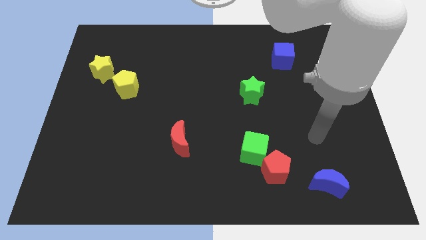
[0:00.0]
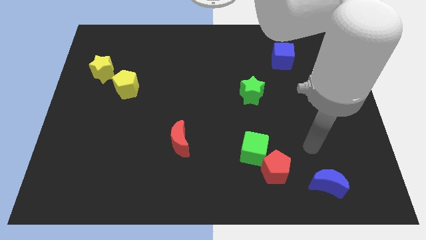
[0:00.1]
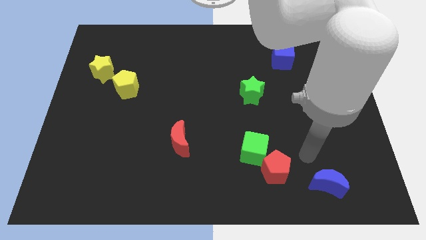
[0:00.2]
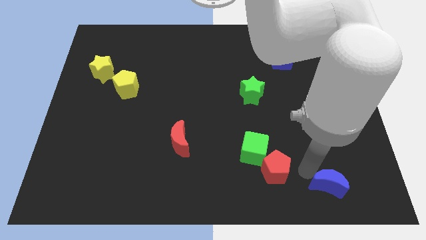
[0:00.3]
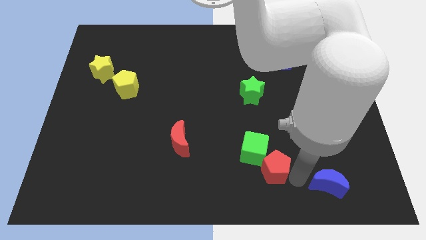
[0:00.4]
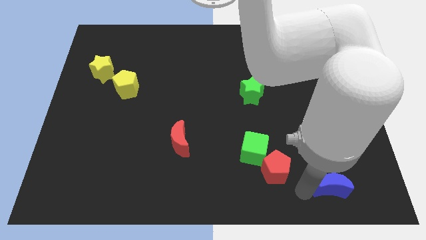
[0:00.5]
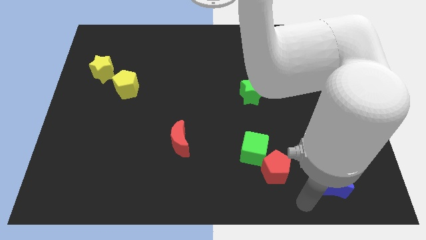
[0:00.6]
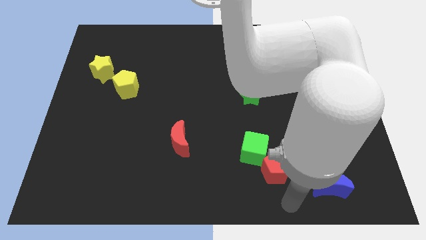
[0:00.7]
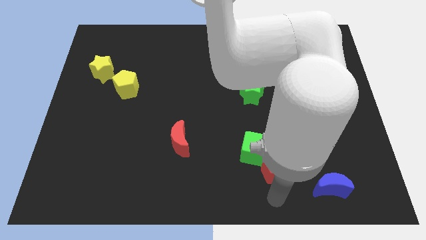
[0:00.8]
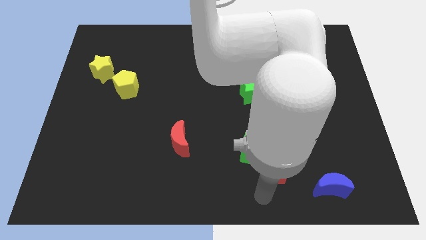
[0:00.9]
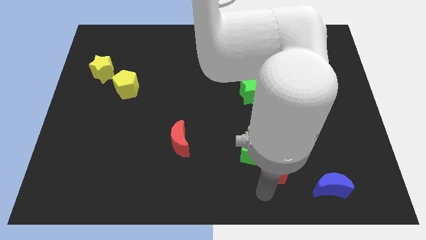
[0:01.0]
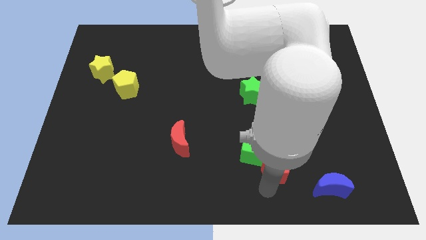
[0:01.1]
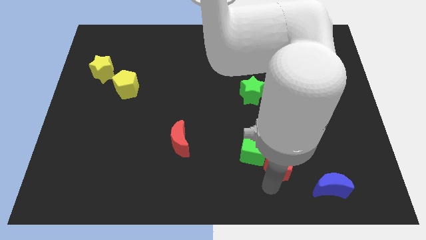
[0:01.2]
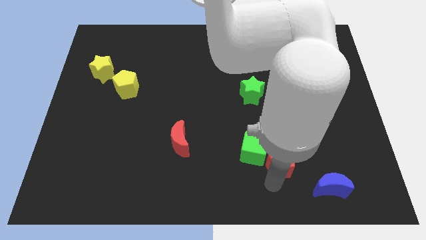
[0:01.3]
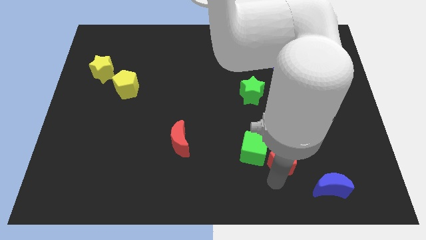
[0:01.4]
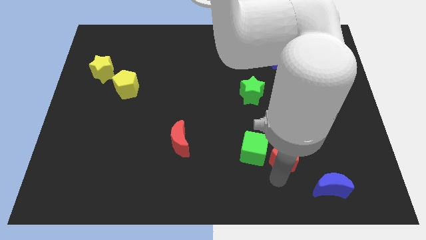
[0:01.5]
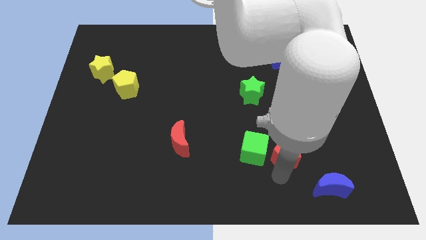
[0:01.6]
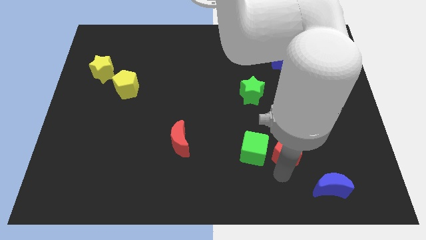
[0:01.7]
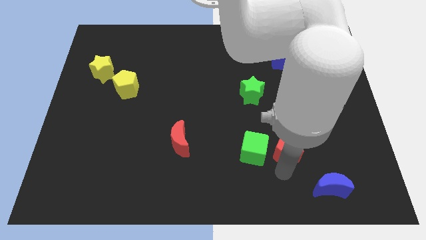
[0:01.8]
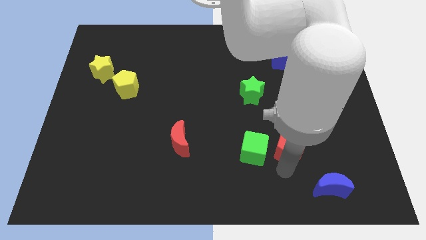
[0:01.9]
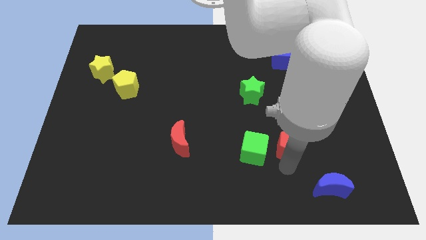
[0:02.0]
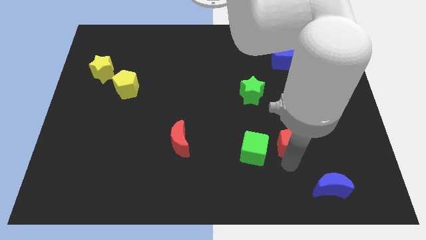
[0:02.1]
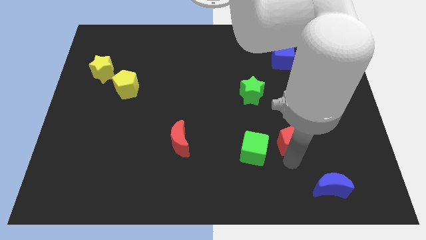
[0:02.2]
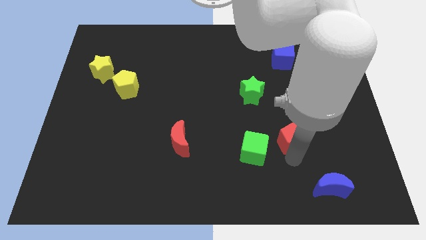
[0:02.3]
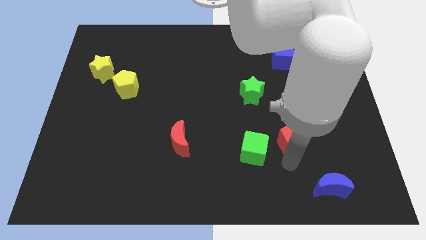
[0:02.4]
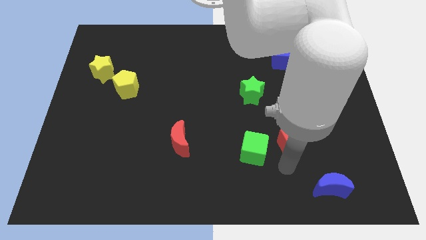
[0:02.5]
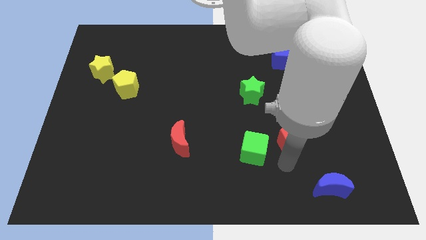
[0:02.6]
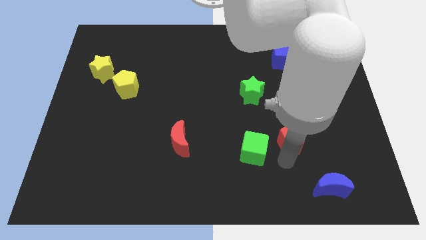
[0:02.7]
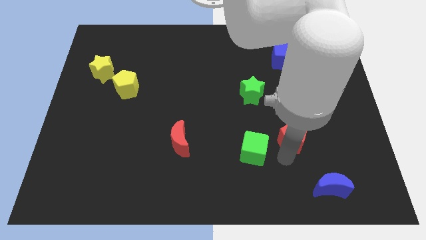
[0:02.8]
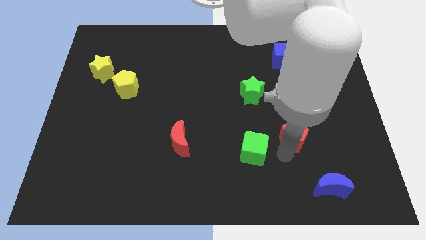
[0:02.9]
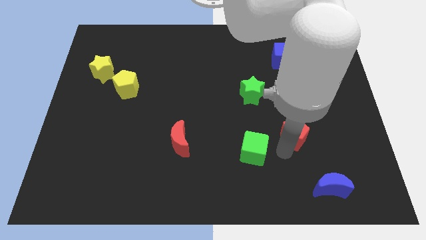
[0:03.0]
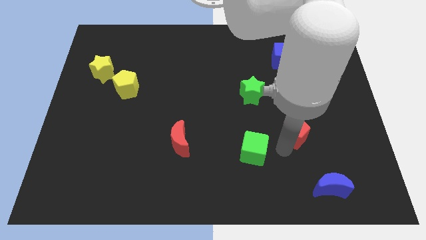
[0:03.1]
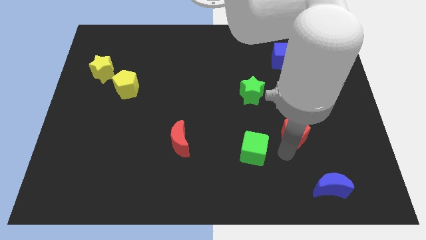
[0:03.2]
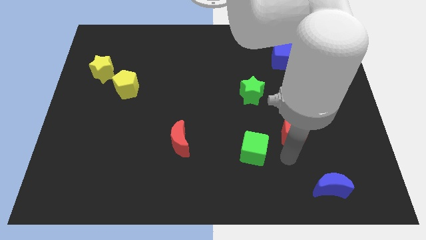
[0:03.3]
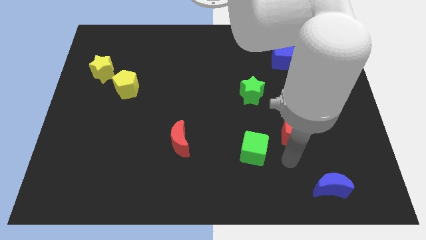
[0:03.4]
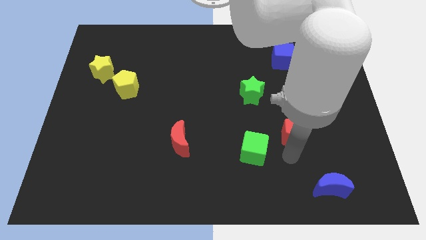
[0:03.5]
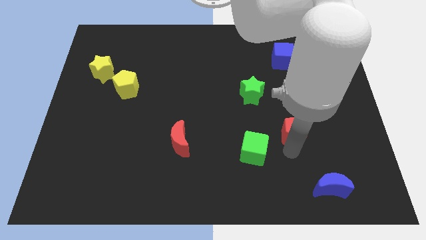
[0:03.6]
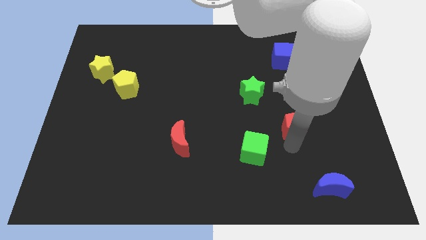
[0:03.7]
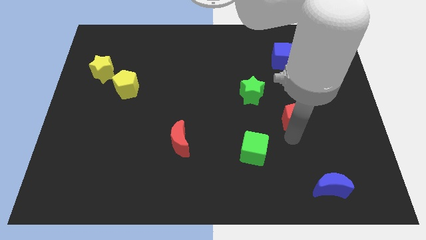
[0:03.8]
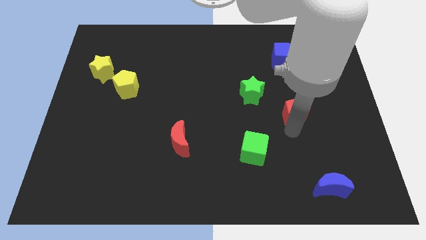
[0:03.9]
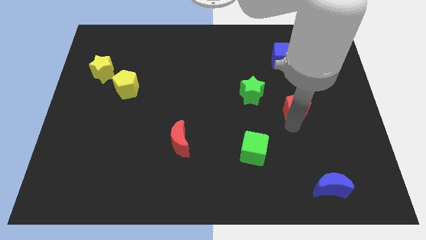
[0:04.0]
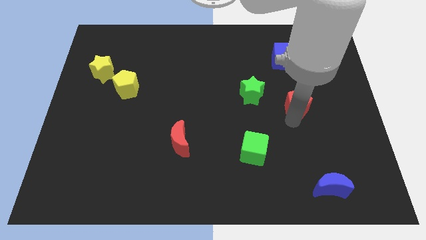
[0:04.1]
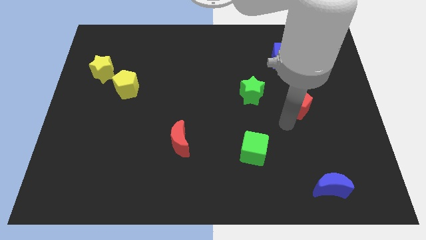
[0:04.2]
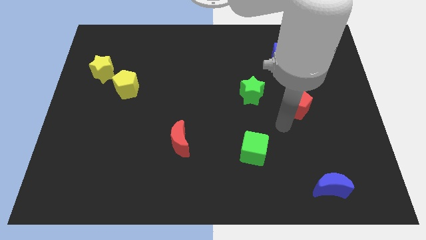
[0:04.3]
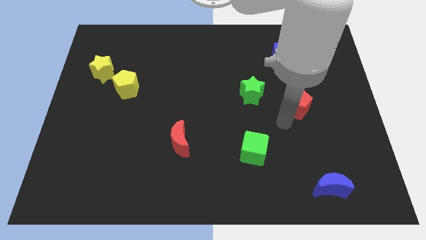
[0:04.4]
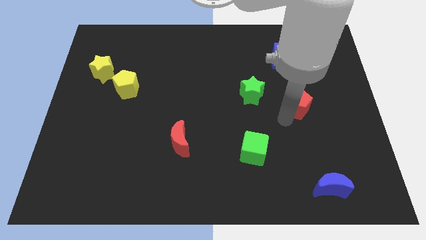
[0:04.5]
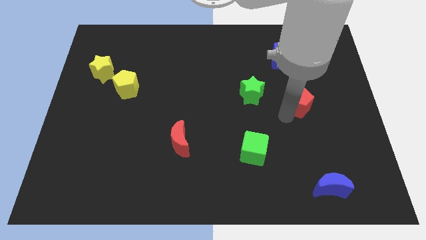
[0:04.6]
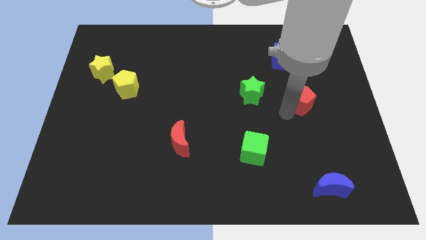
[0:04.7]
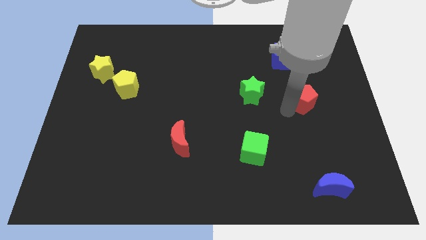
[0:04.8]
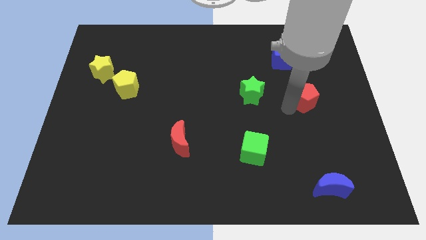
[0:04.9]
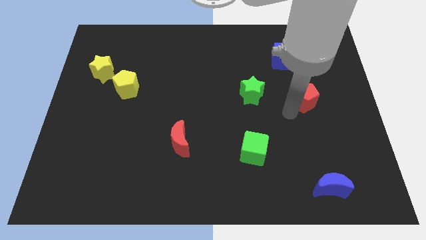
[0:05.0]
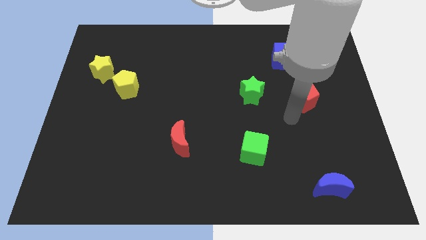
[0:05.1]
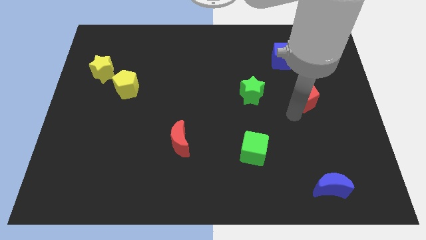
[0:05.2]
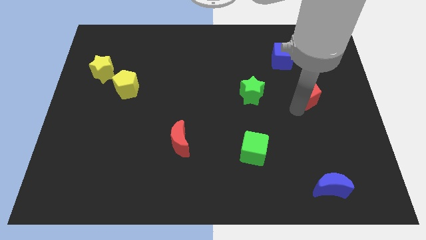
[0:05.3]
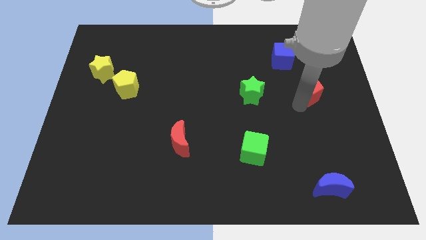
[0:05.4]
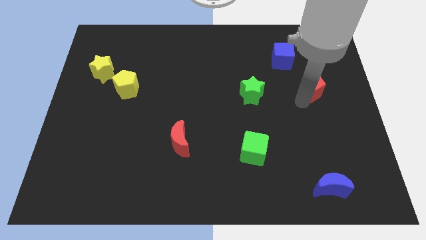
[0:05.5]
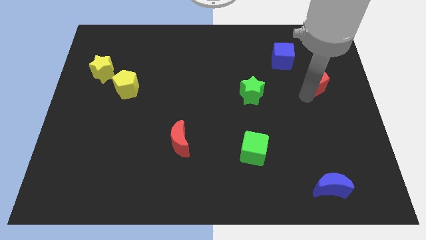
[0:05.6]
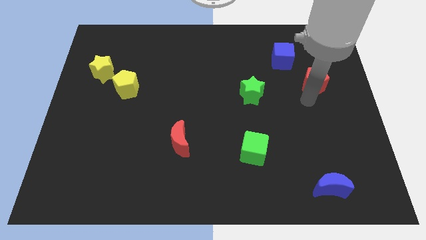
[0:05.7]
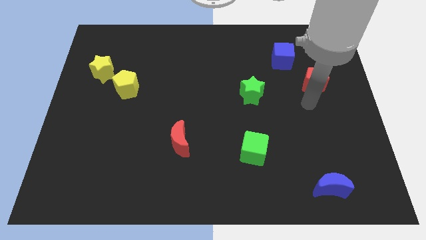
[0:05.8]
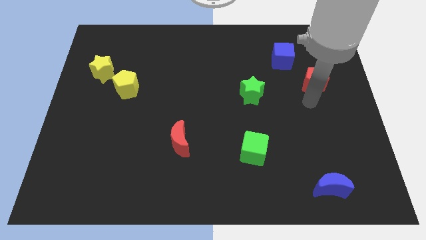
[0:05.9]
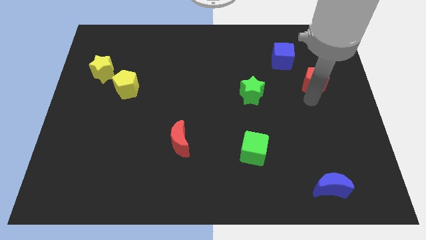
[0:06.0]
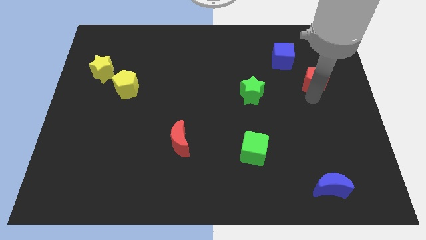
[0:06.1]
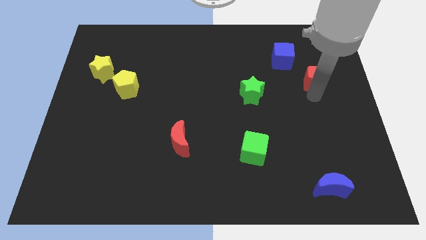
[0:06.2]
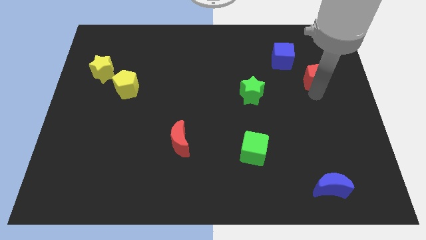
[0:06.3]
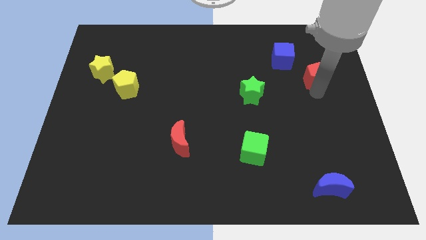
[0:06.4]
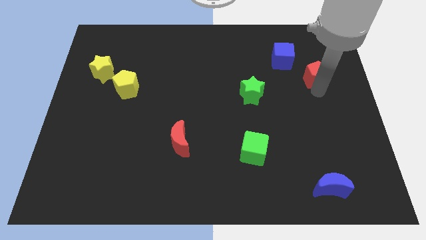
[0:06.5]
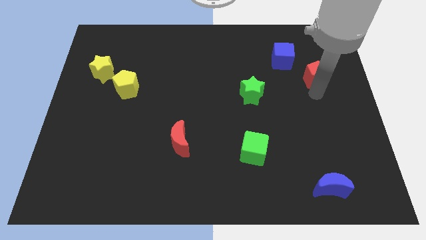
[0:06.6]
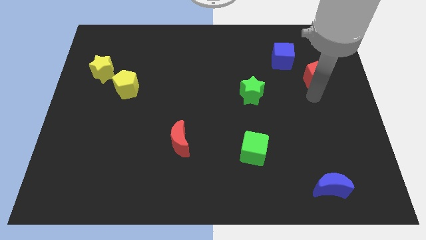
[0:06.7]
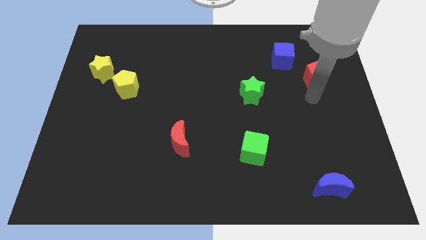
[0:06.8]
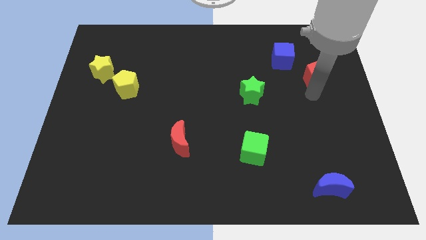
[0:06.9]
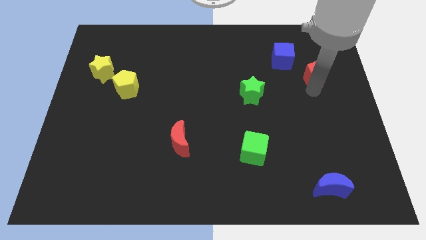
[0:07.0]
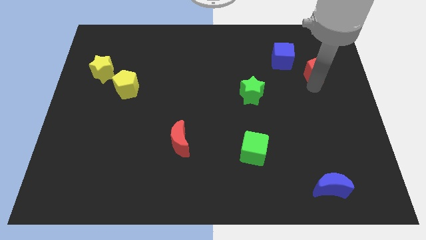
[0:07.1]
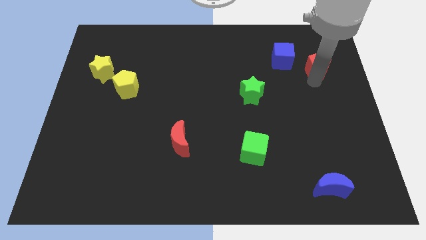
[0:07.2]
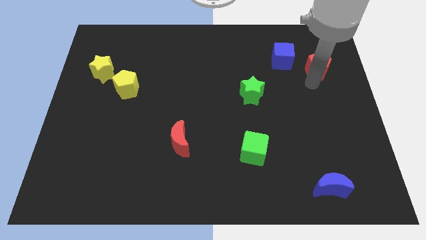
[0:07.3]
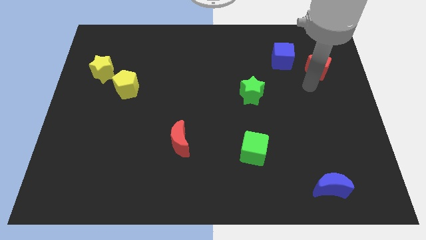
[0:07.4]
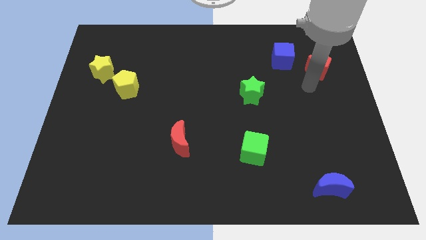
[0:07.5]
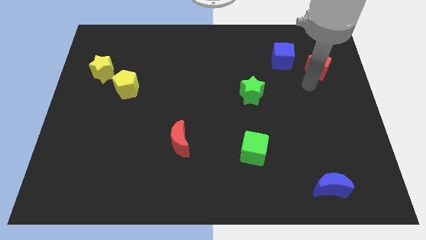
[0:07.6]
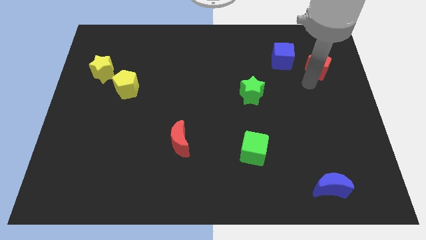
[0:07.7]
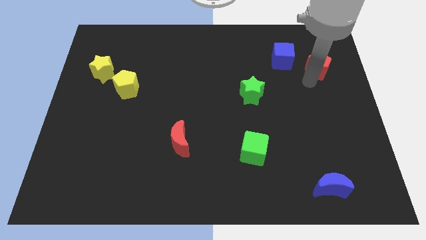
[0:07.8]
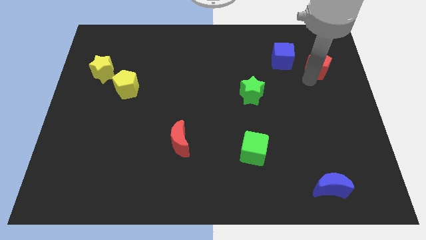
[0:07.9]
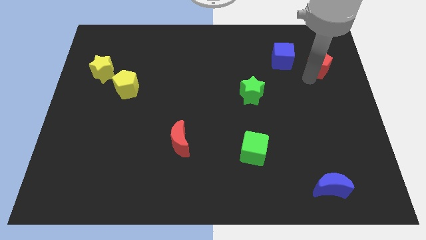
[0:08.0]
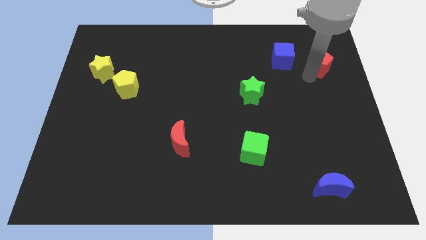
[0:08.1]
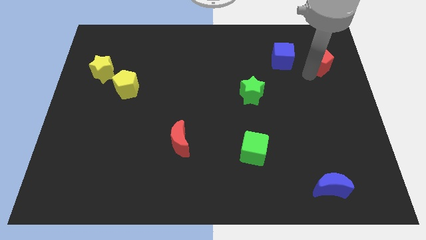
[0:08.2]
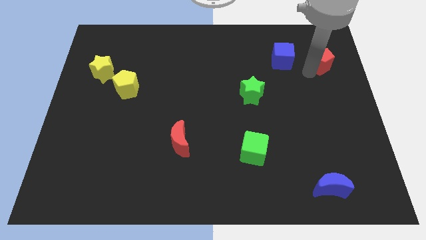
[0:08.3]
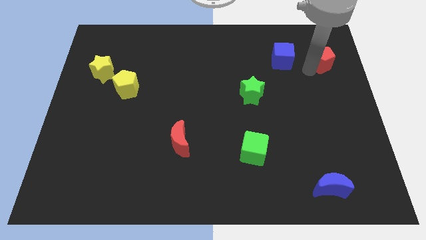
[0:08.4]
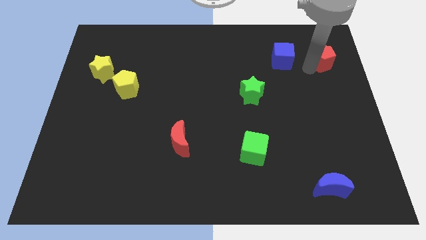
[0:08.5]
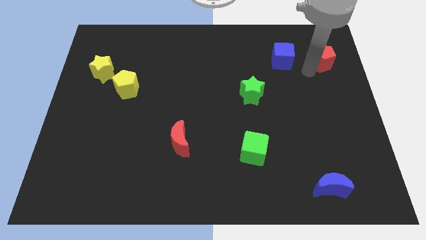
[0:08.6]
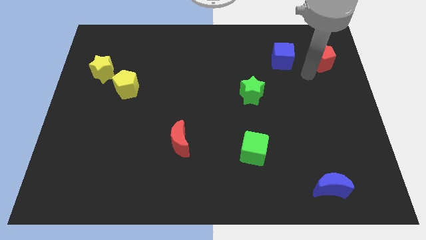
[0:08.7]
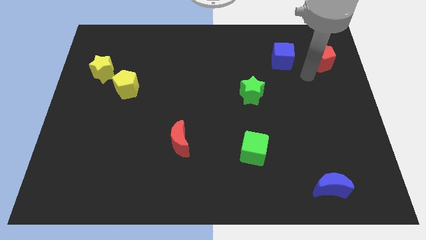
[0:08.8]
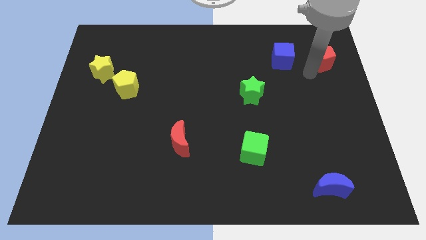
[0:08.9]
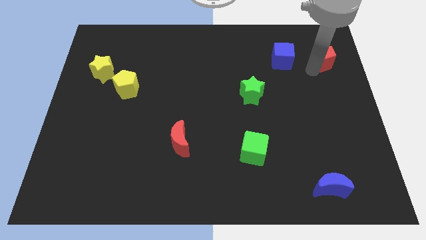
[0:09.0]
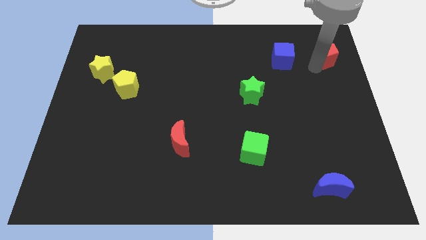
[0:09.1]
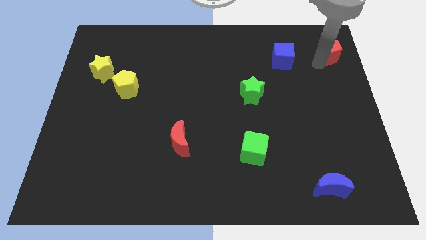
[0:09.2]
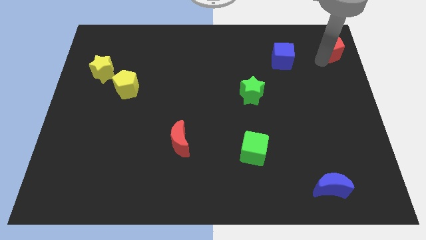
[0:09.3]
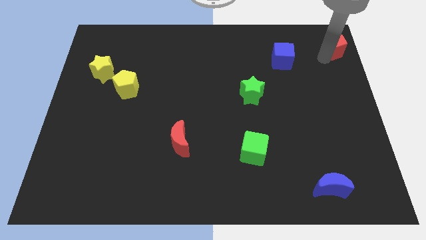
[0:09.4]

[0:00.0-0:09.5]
move the red pentagon to the top right
